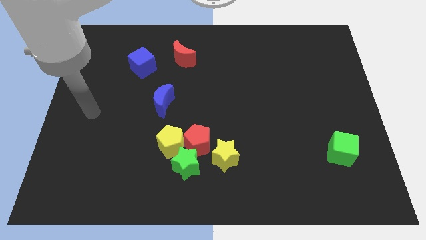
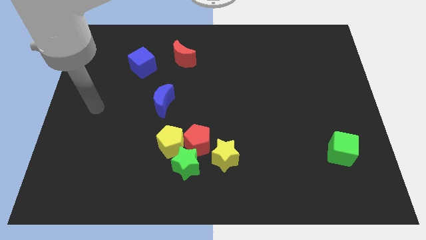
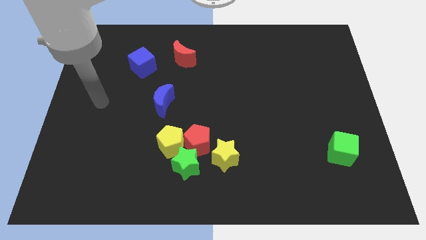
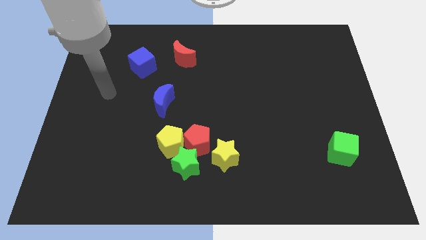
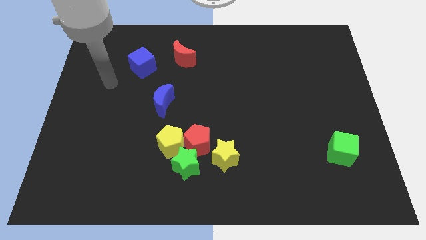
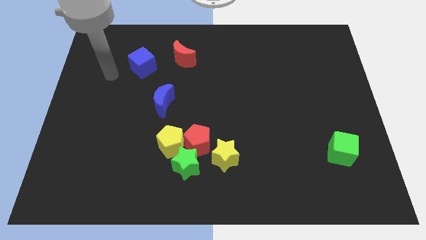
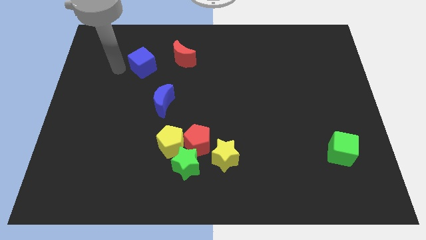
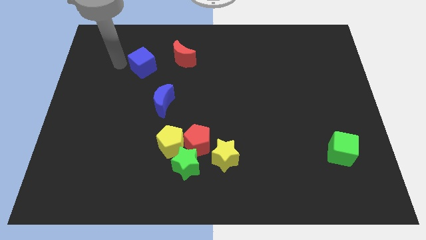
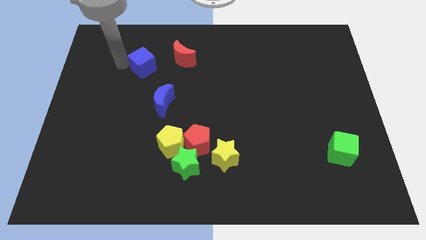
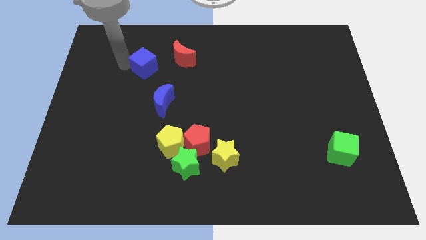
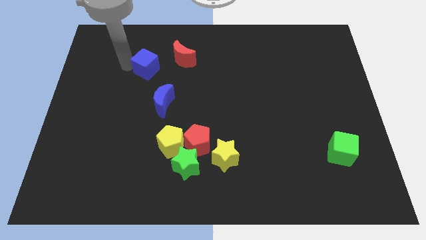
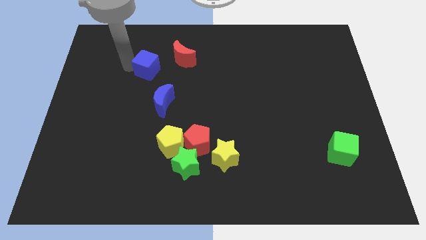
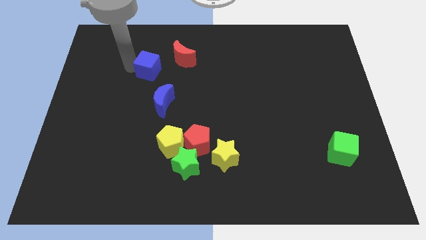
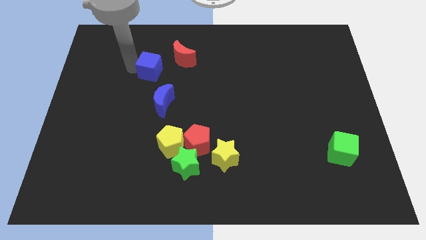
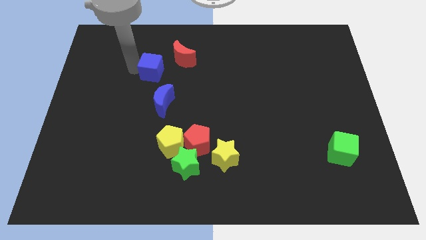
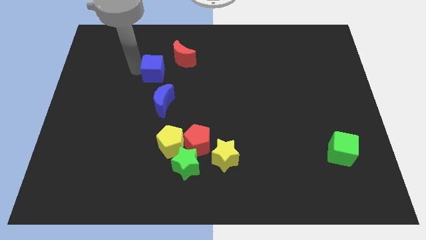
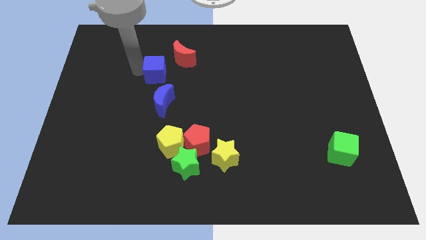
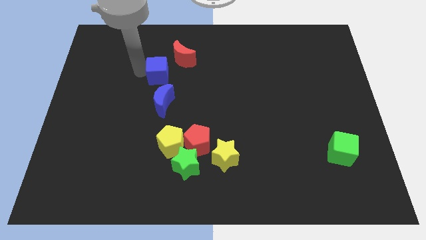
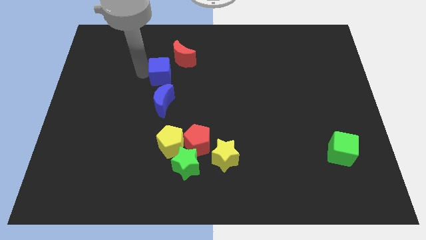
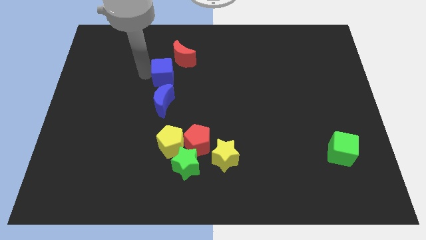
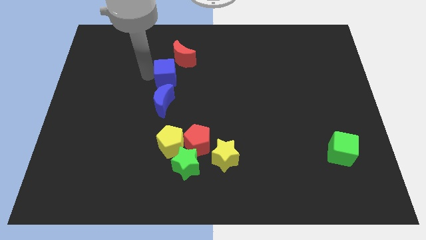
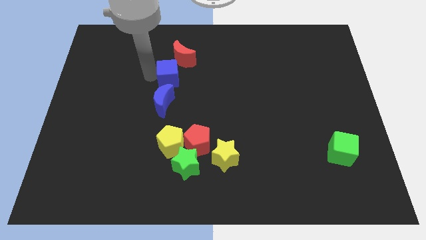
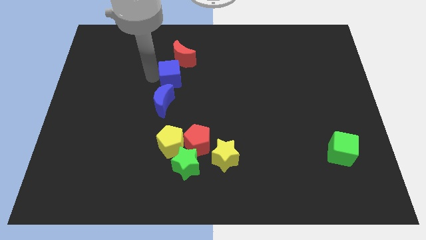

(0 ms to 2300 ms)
slightly push the blue cube to the right

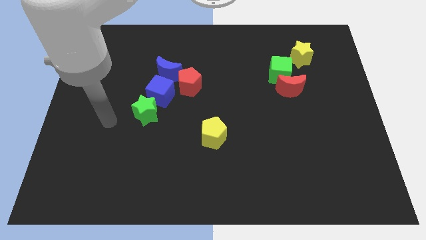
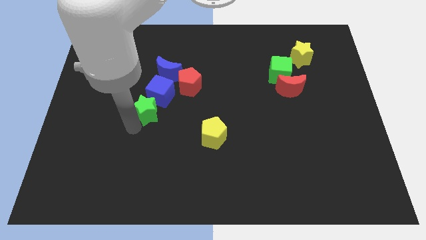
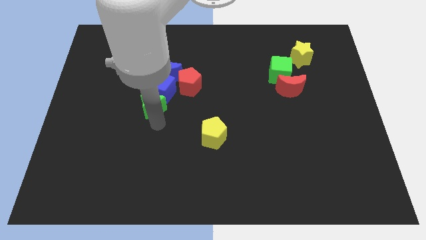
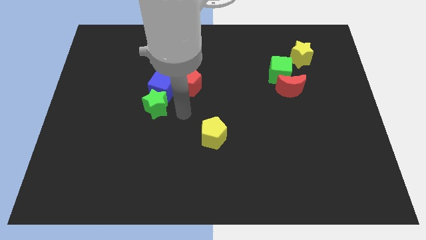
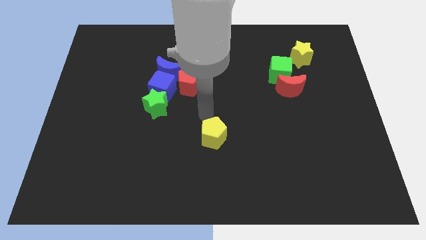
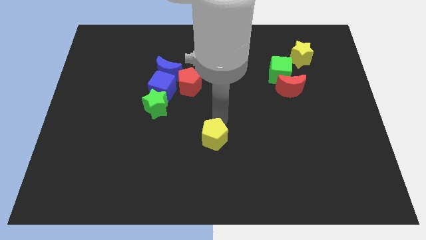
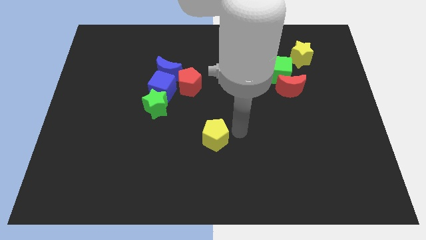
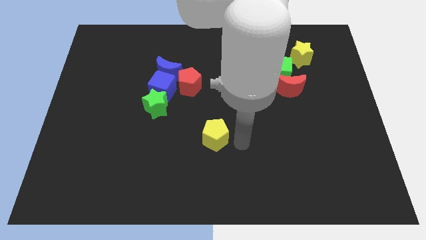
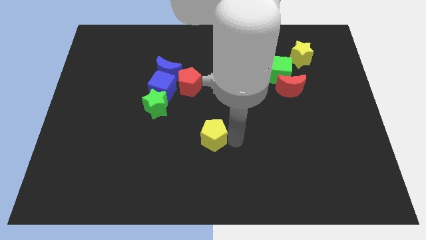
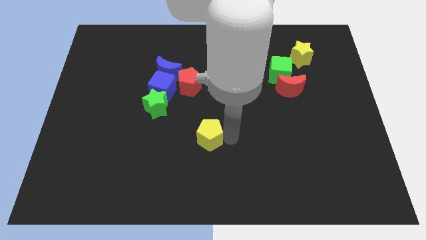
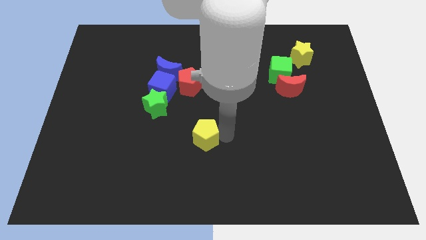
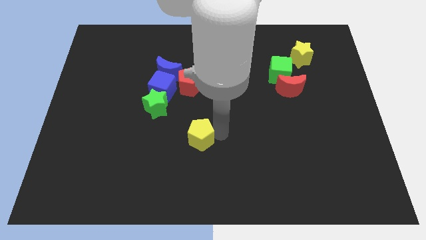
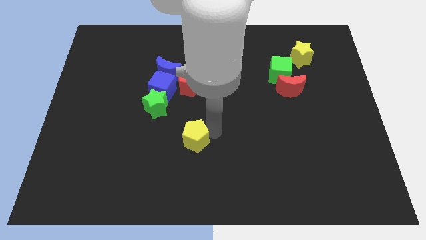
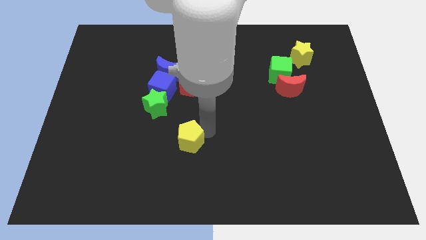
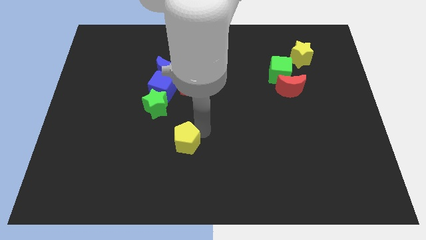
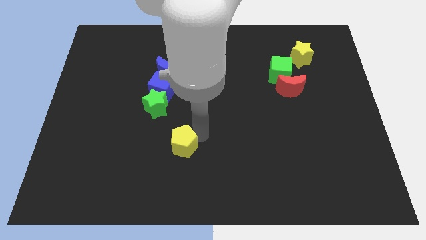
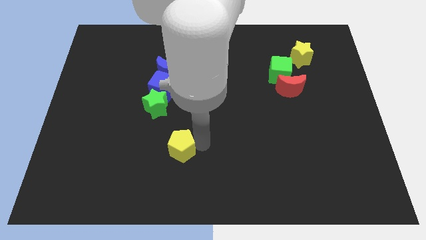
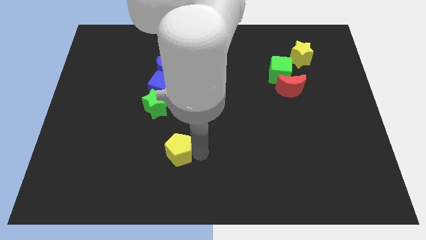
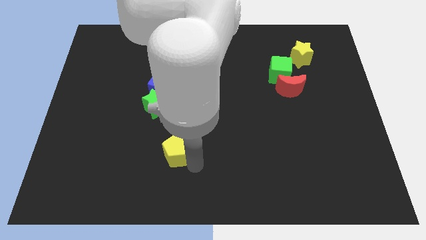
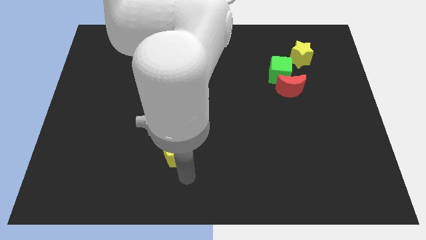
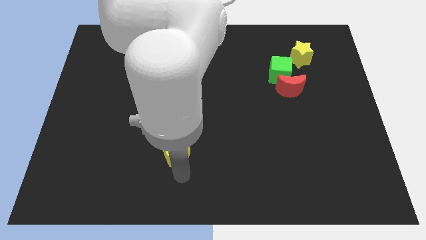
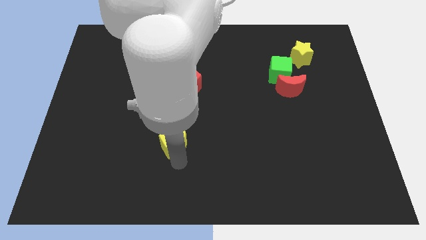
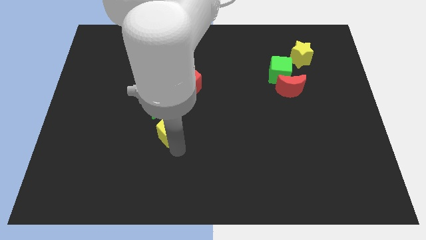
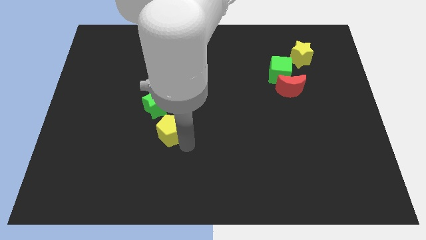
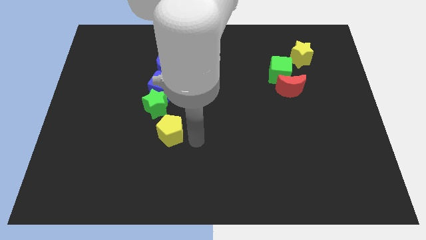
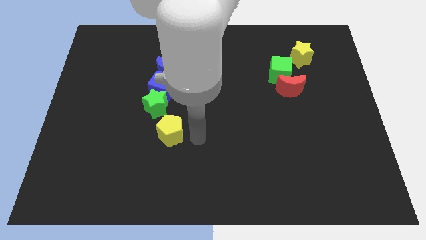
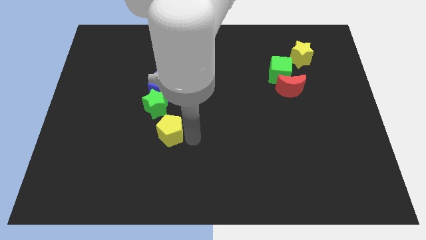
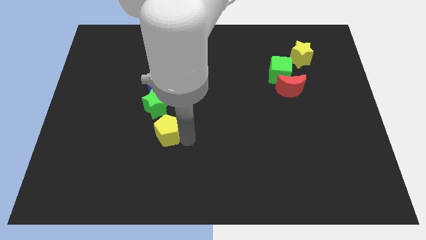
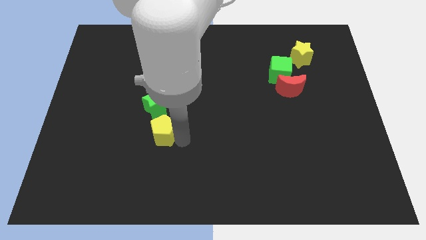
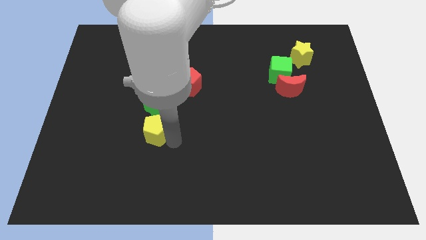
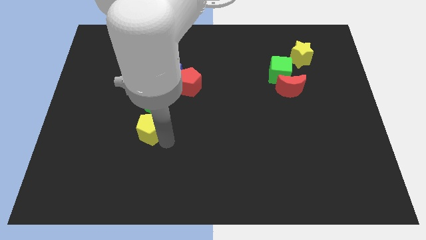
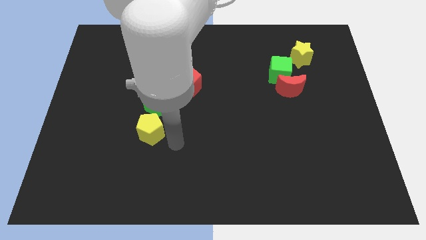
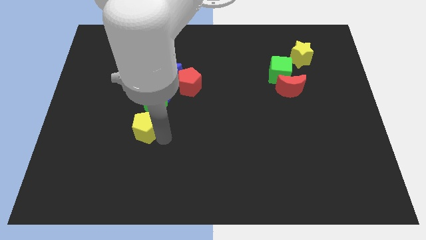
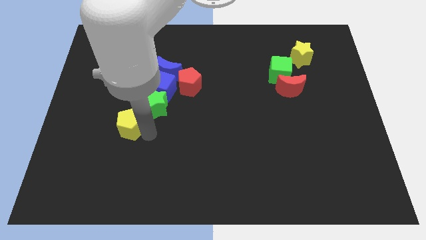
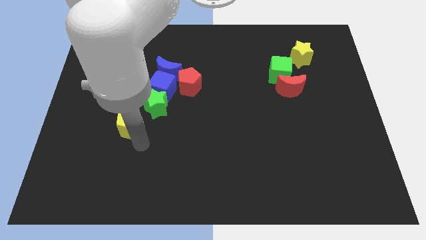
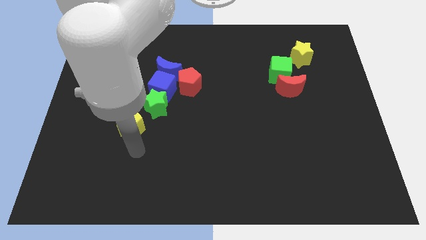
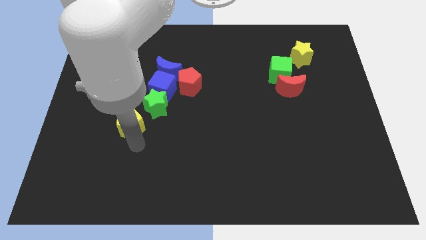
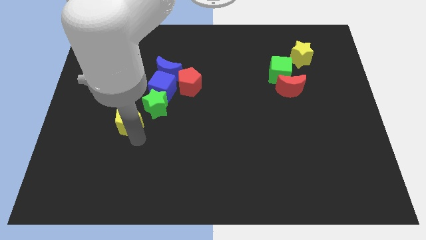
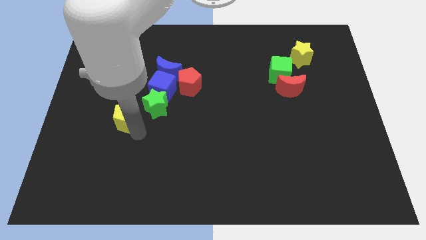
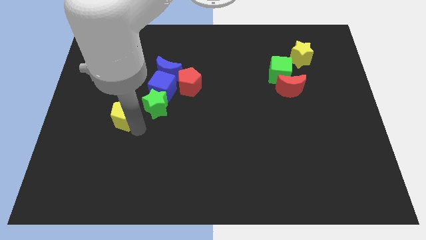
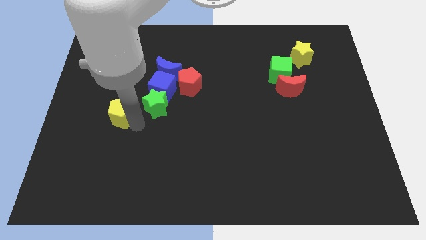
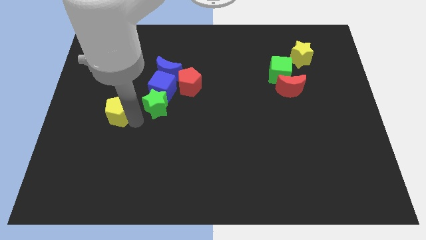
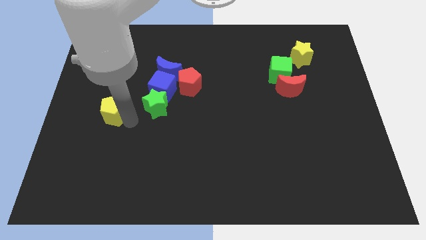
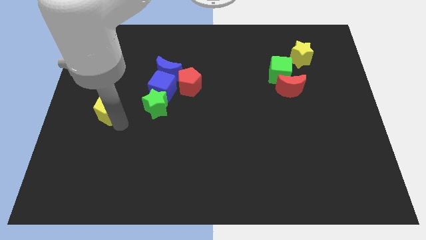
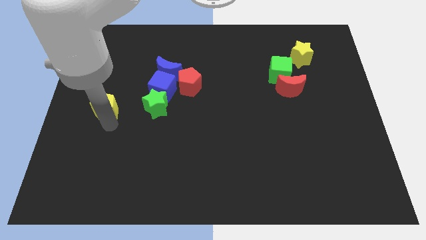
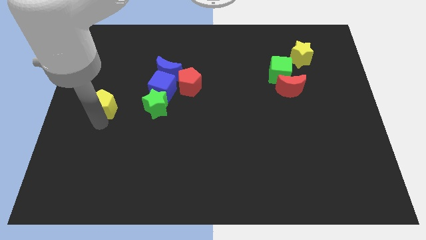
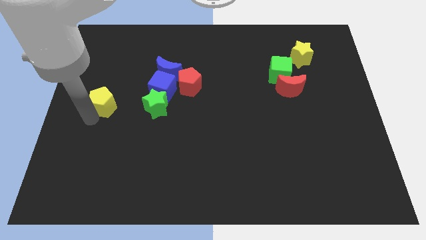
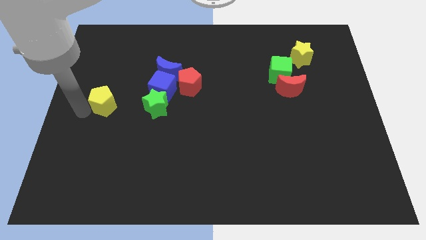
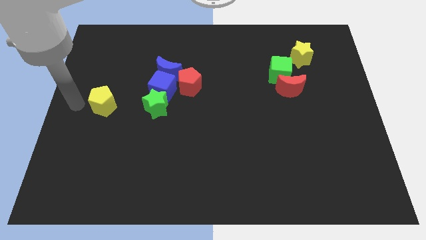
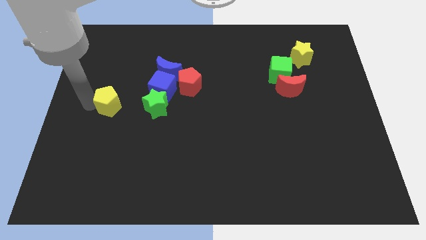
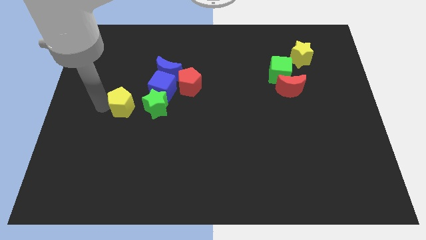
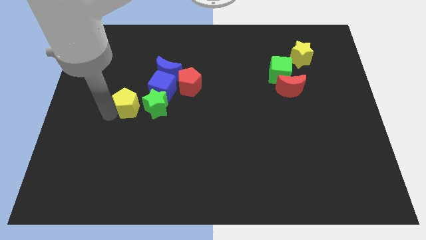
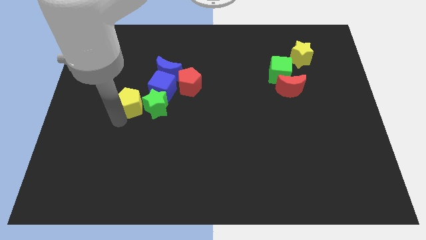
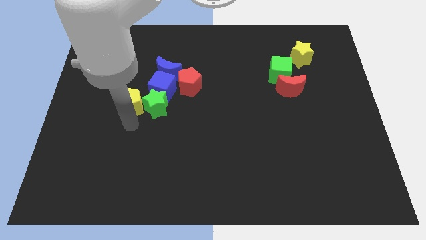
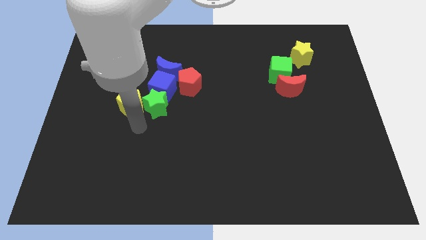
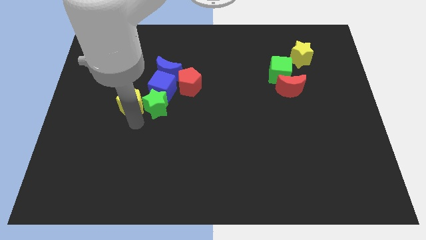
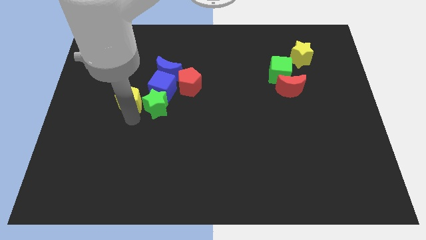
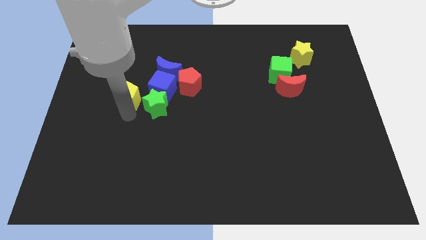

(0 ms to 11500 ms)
push the yellow pentagon up and to the left

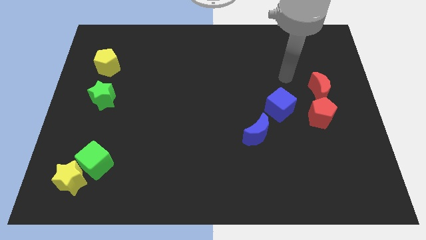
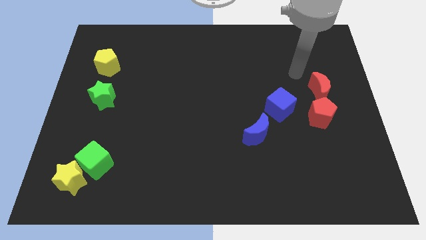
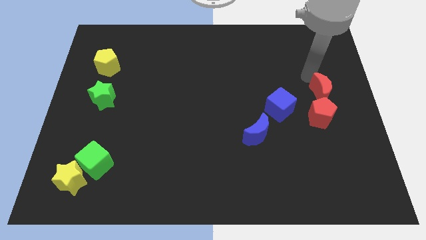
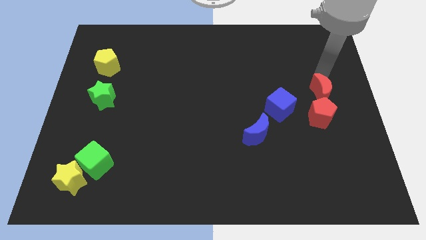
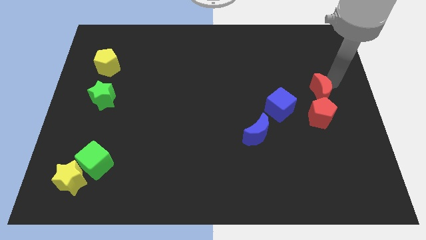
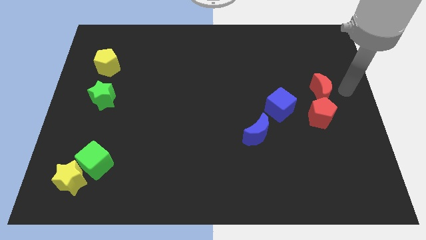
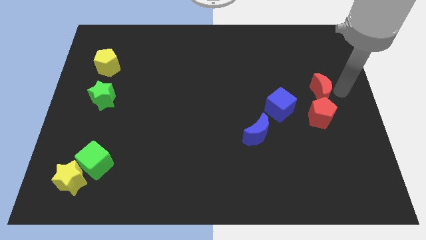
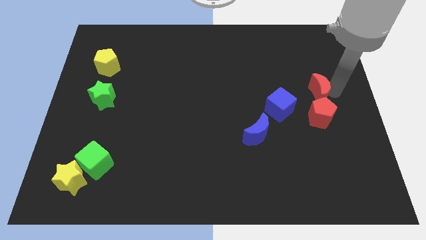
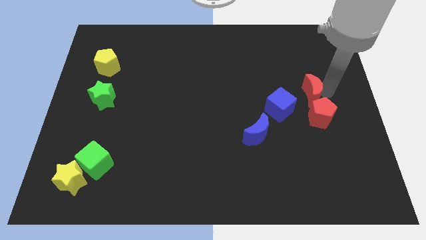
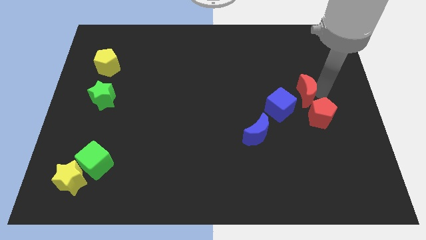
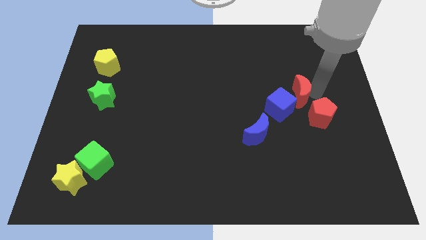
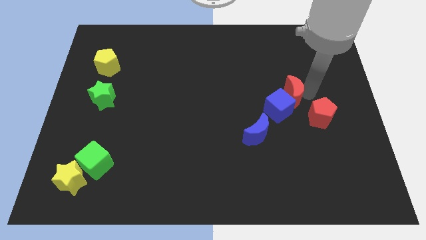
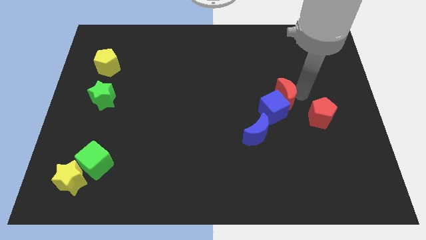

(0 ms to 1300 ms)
move the red moon left slightly
